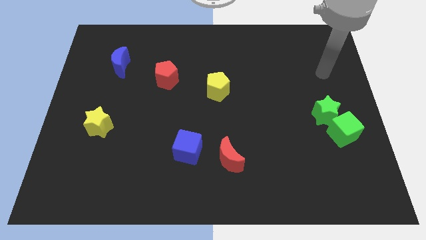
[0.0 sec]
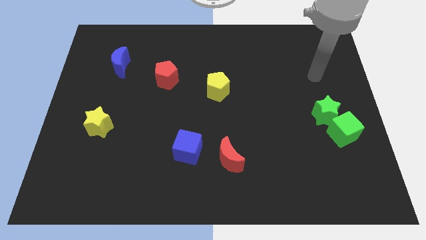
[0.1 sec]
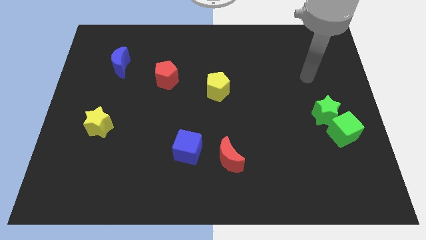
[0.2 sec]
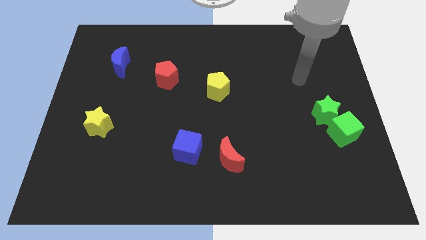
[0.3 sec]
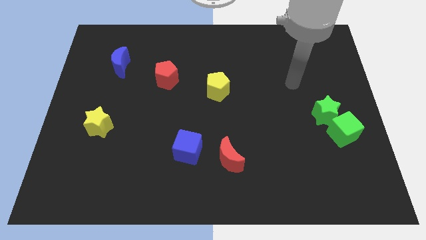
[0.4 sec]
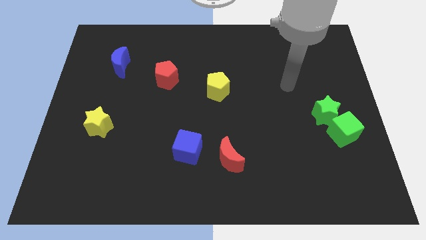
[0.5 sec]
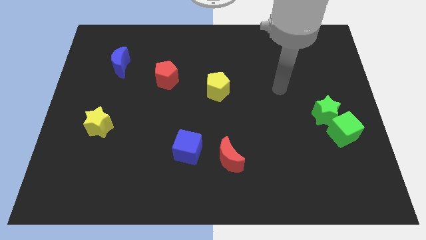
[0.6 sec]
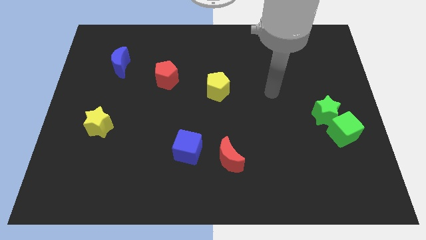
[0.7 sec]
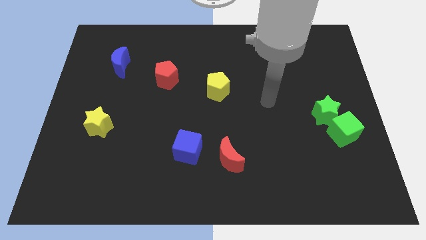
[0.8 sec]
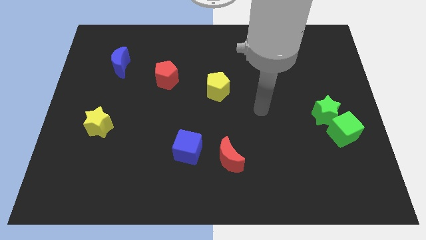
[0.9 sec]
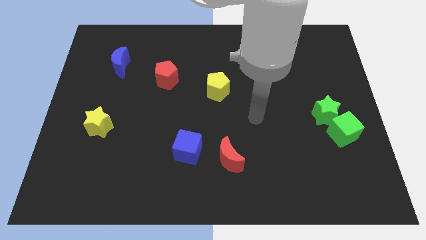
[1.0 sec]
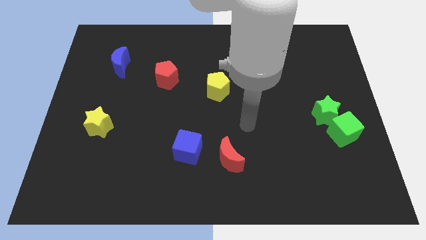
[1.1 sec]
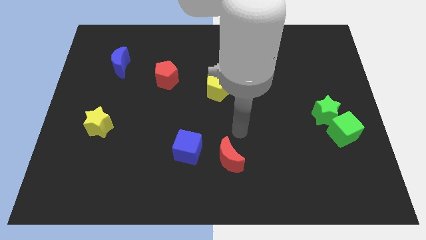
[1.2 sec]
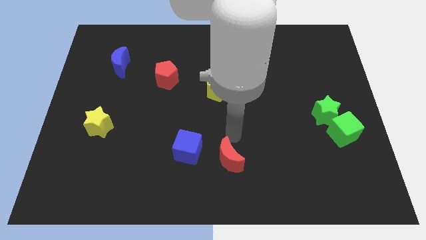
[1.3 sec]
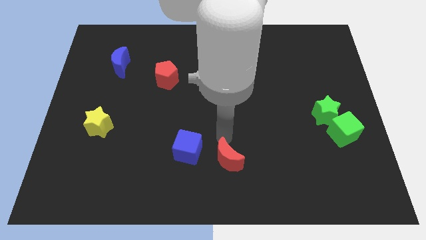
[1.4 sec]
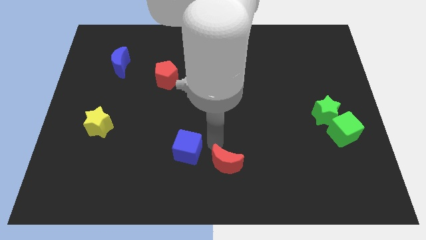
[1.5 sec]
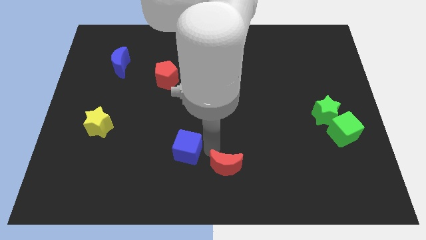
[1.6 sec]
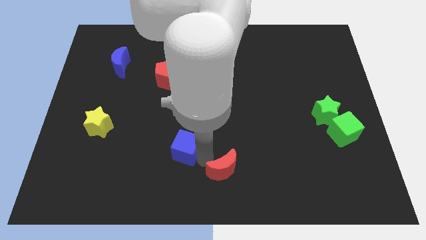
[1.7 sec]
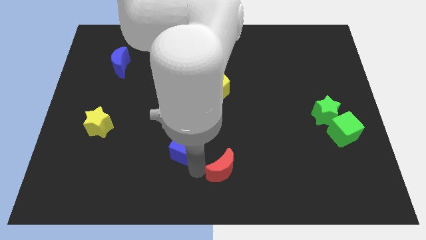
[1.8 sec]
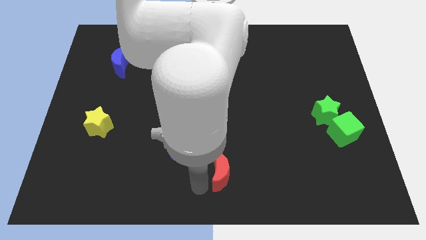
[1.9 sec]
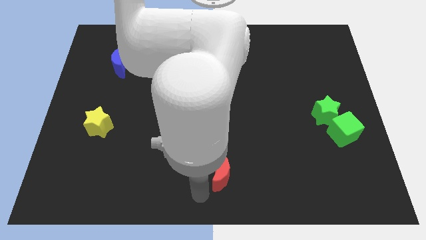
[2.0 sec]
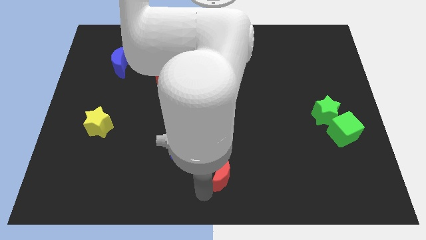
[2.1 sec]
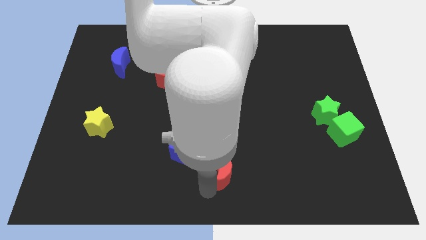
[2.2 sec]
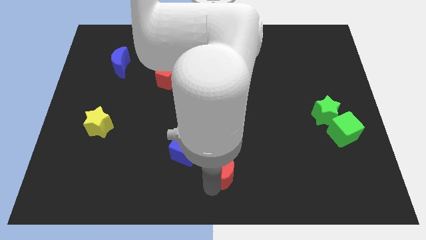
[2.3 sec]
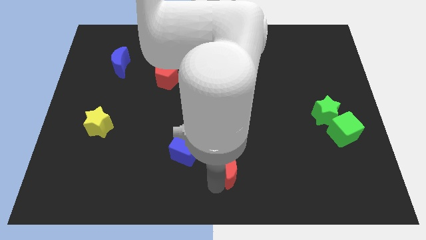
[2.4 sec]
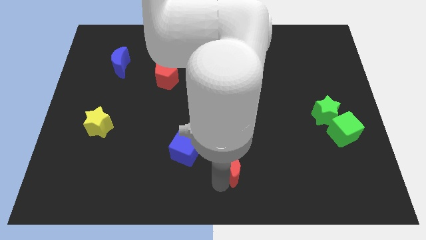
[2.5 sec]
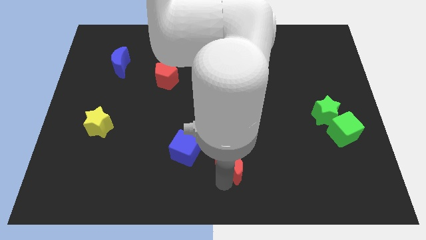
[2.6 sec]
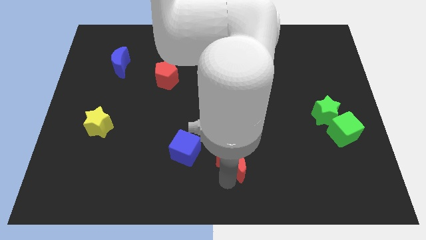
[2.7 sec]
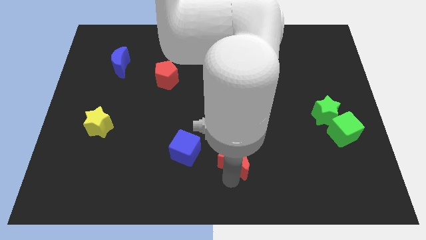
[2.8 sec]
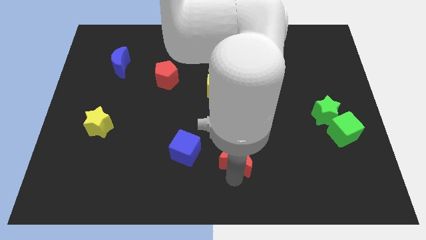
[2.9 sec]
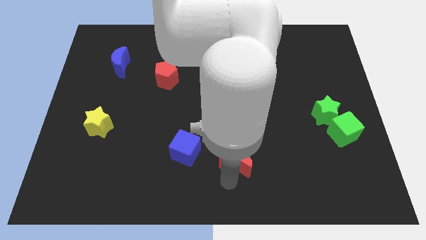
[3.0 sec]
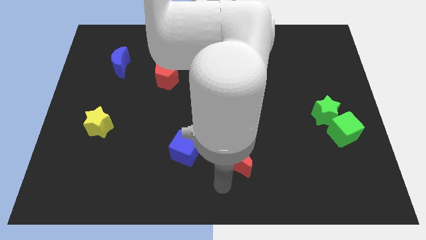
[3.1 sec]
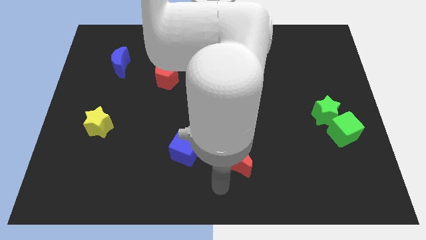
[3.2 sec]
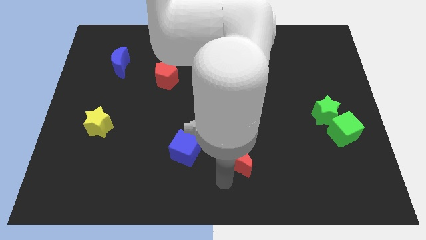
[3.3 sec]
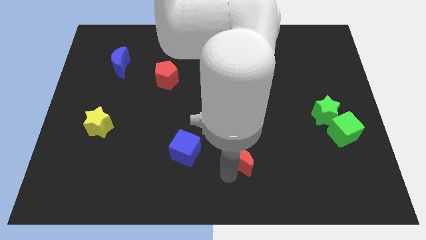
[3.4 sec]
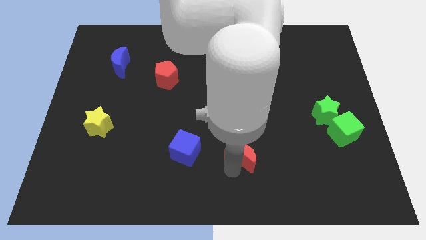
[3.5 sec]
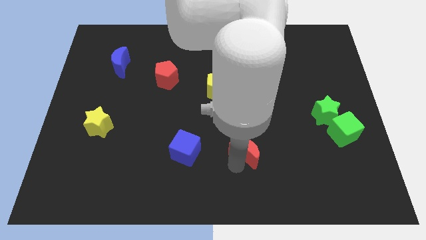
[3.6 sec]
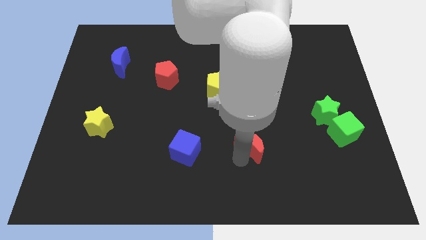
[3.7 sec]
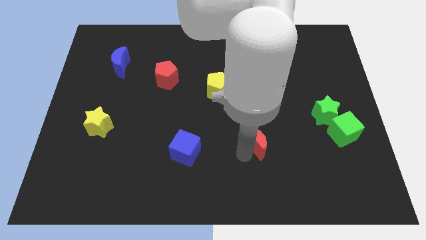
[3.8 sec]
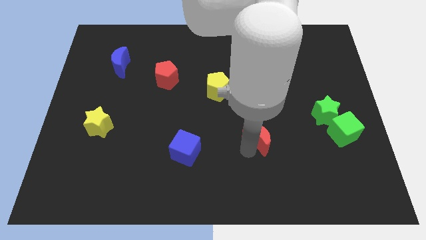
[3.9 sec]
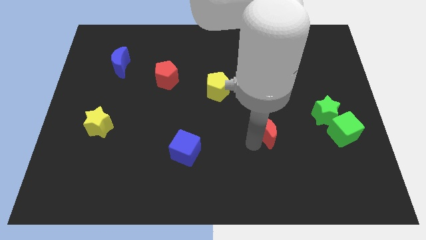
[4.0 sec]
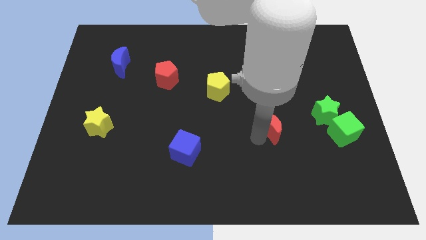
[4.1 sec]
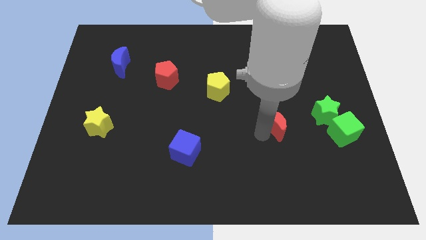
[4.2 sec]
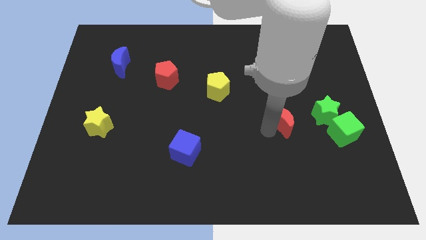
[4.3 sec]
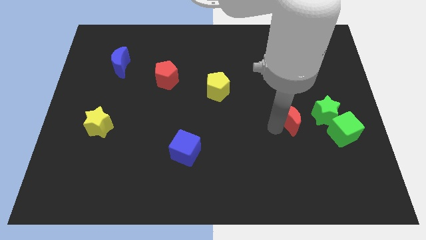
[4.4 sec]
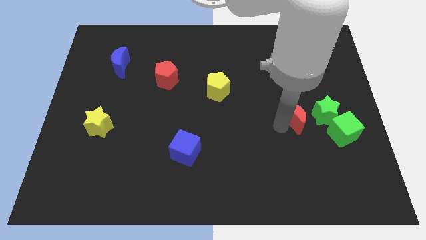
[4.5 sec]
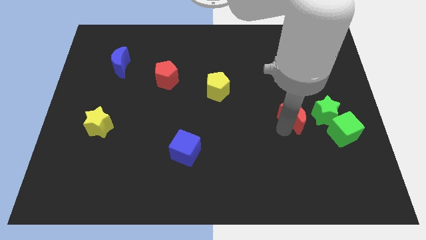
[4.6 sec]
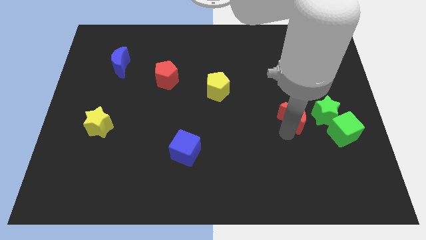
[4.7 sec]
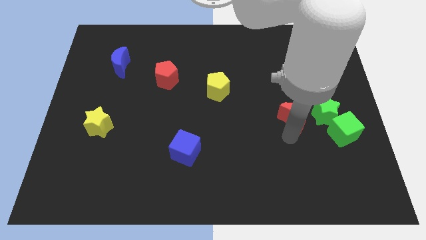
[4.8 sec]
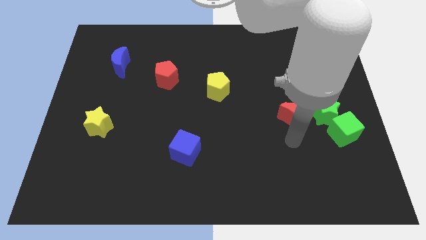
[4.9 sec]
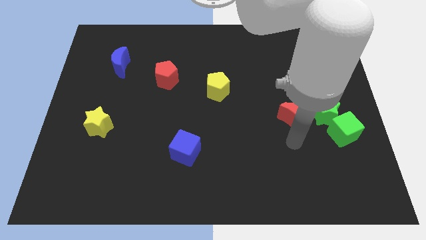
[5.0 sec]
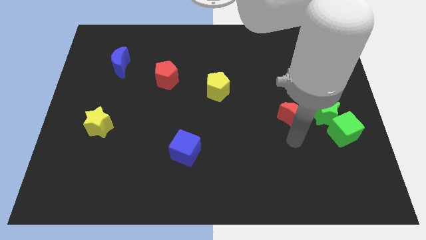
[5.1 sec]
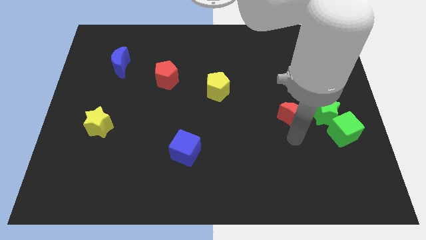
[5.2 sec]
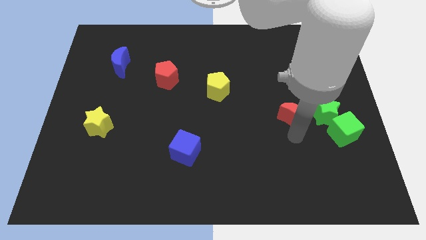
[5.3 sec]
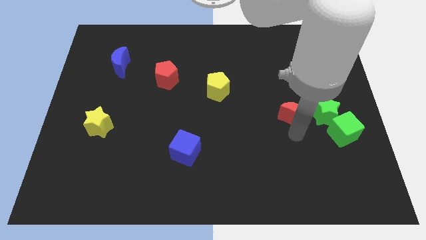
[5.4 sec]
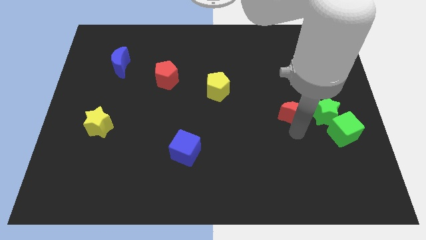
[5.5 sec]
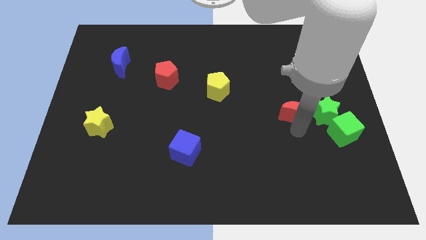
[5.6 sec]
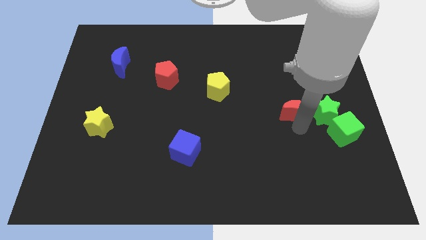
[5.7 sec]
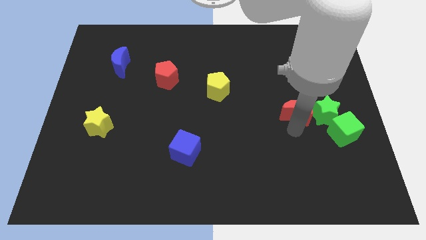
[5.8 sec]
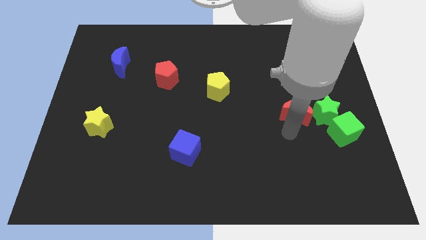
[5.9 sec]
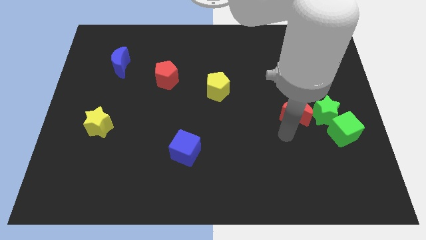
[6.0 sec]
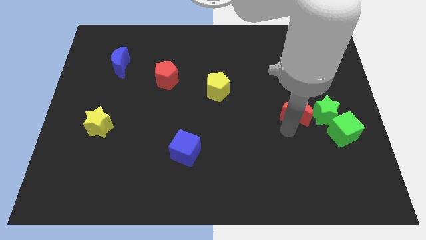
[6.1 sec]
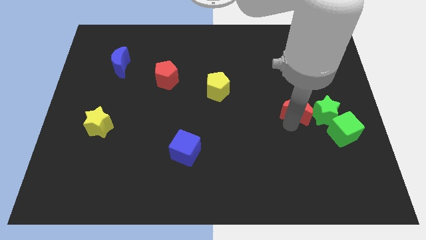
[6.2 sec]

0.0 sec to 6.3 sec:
move the red moon up and right

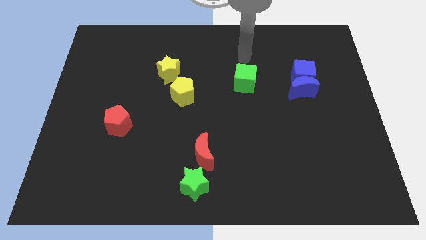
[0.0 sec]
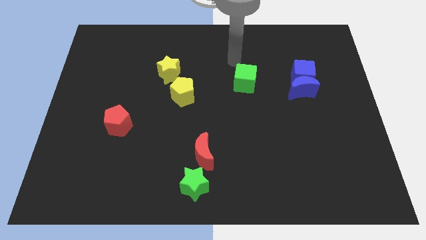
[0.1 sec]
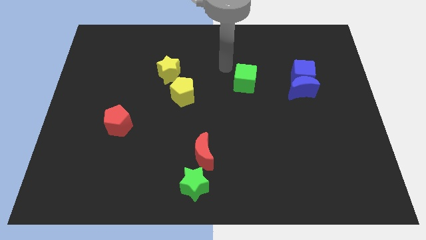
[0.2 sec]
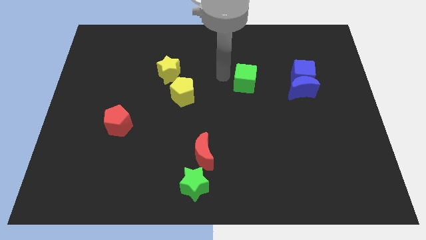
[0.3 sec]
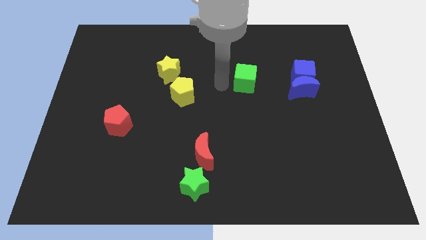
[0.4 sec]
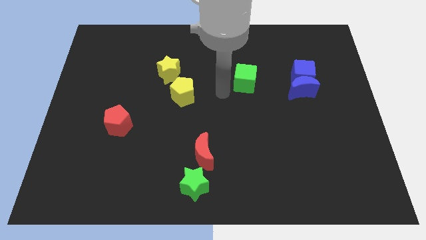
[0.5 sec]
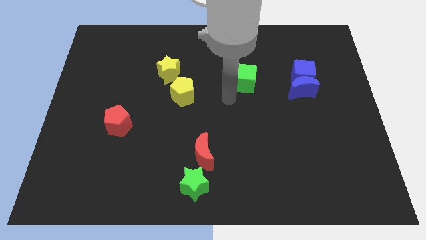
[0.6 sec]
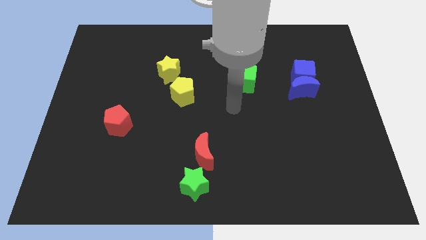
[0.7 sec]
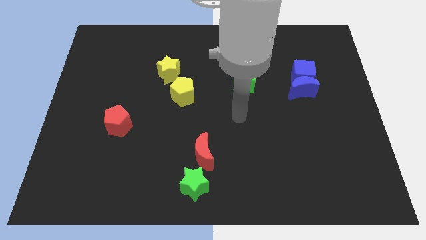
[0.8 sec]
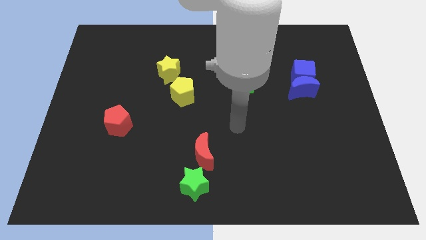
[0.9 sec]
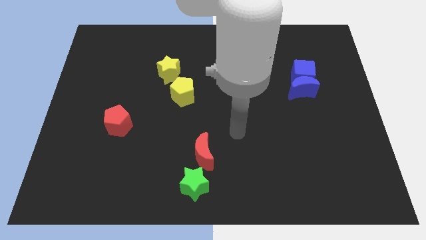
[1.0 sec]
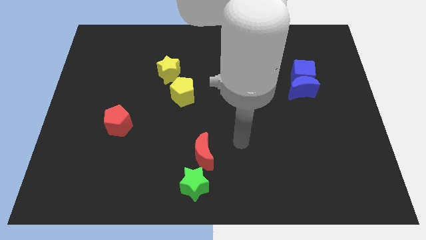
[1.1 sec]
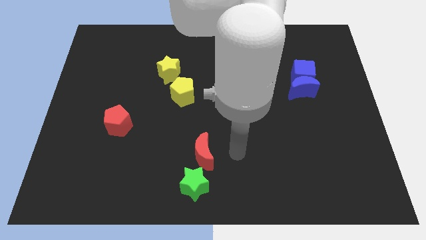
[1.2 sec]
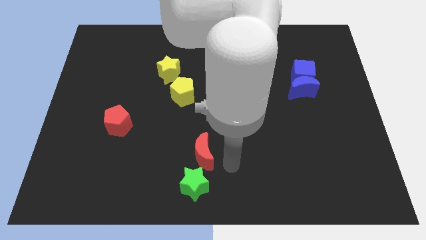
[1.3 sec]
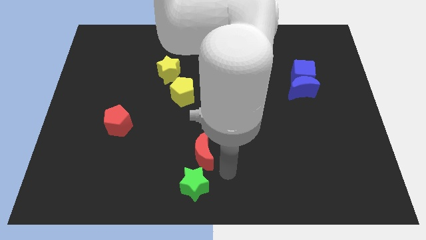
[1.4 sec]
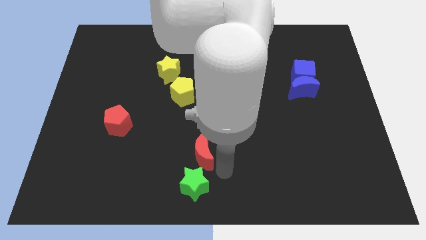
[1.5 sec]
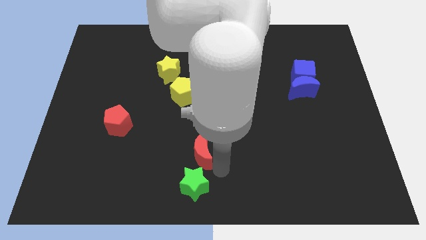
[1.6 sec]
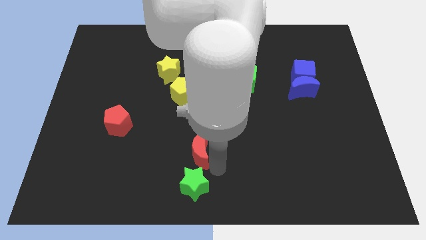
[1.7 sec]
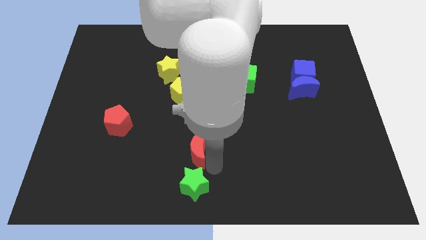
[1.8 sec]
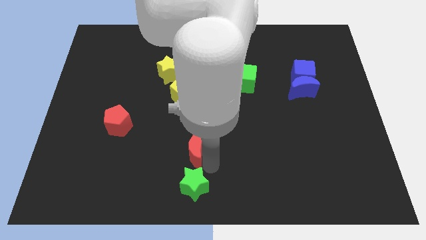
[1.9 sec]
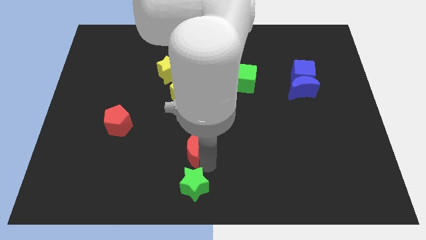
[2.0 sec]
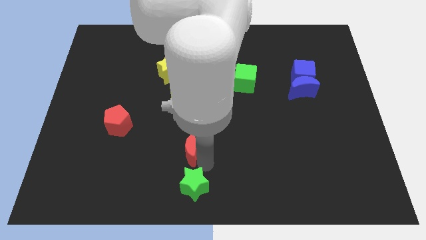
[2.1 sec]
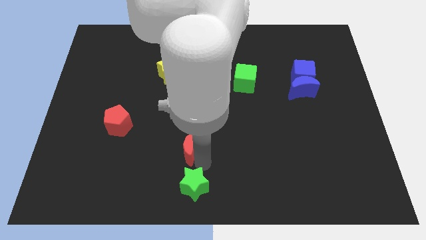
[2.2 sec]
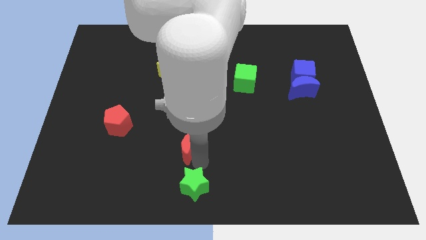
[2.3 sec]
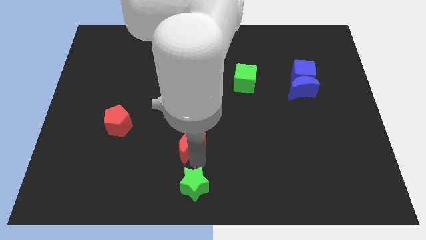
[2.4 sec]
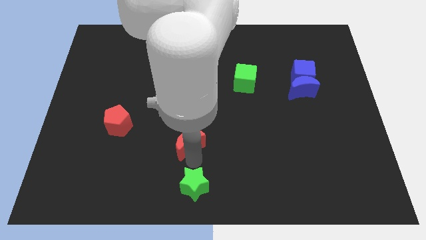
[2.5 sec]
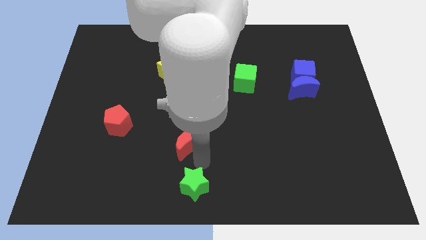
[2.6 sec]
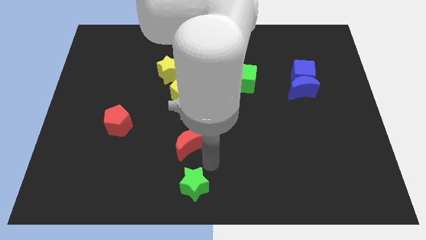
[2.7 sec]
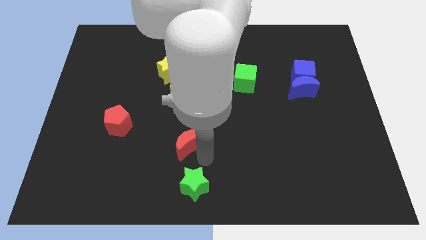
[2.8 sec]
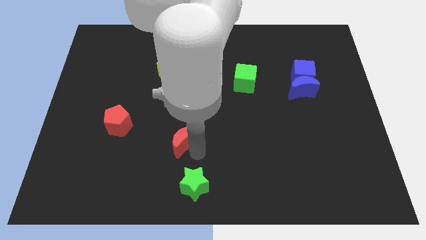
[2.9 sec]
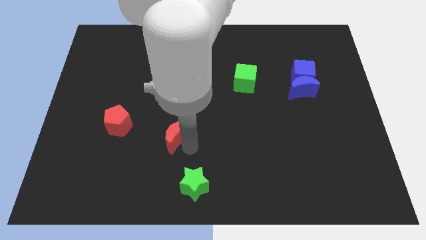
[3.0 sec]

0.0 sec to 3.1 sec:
slide the red moon a little bit upwards and left
